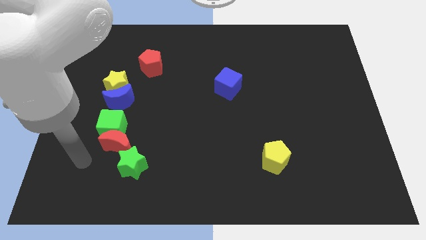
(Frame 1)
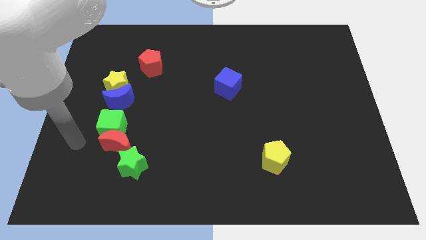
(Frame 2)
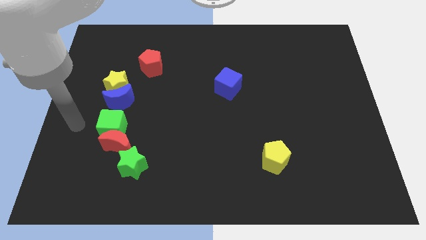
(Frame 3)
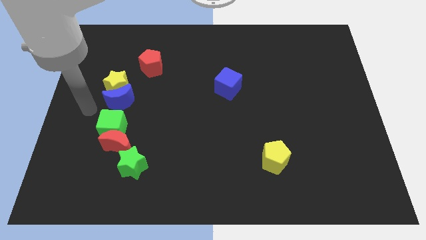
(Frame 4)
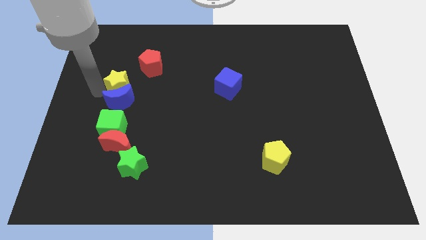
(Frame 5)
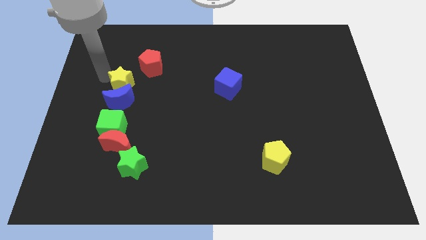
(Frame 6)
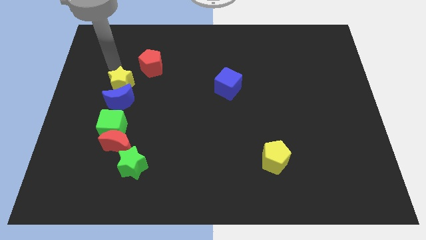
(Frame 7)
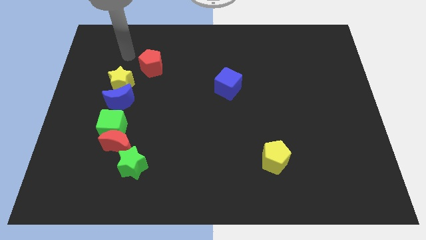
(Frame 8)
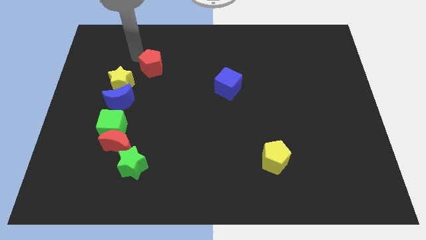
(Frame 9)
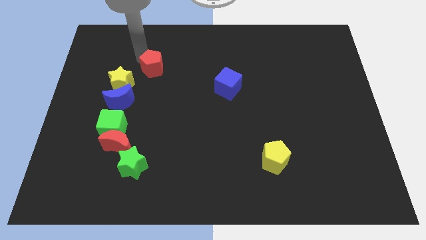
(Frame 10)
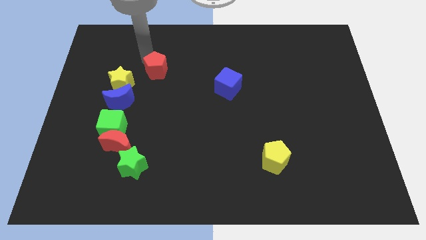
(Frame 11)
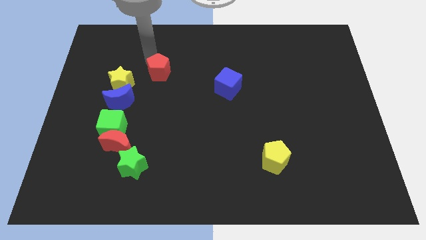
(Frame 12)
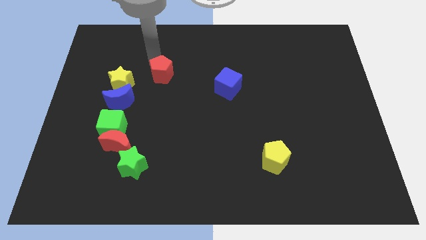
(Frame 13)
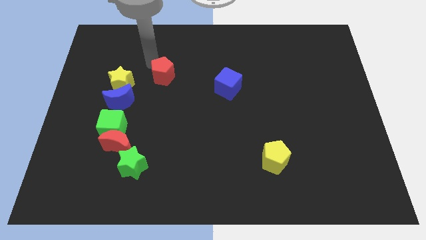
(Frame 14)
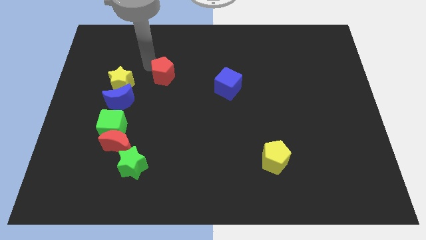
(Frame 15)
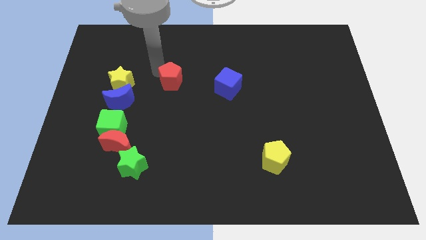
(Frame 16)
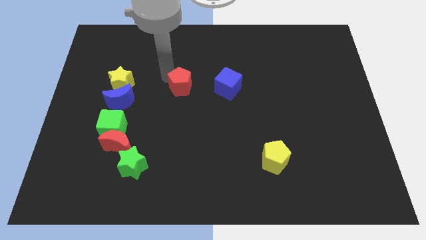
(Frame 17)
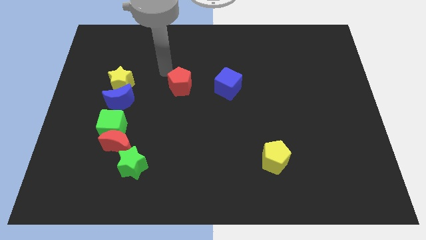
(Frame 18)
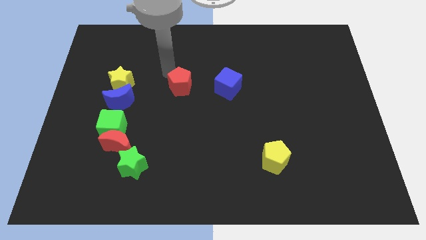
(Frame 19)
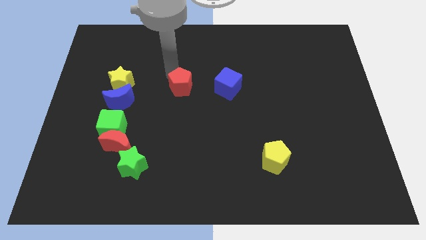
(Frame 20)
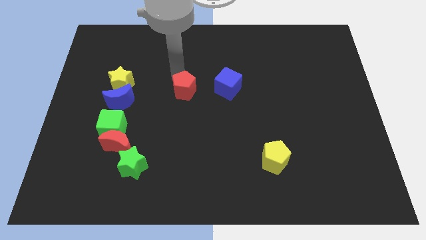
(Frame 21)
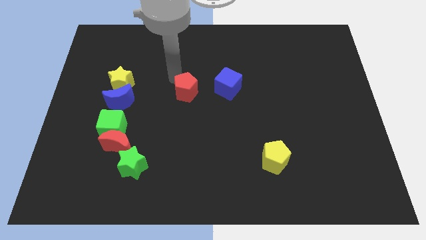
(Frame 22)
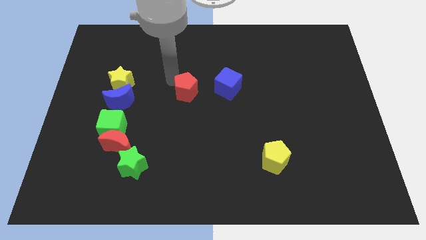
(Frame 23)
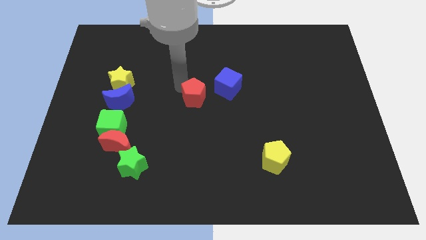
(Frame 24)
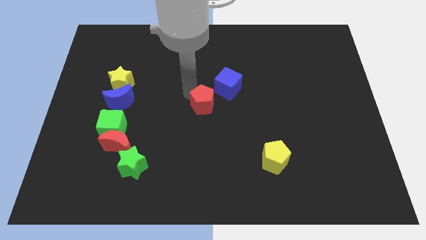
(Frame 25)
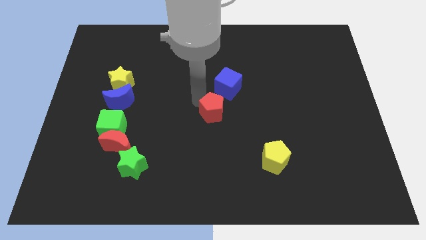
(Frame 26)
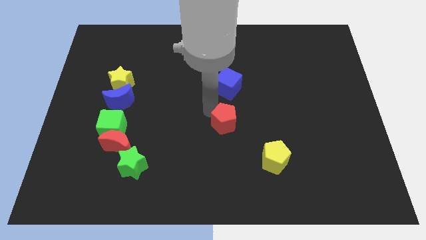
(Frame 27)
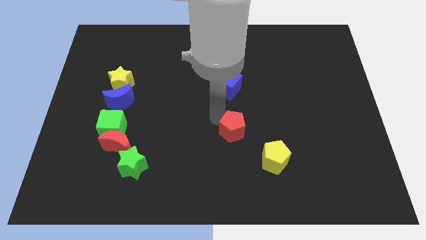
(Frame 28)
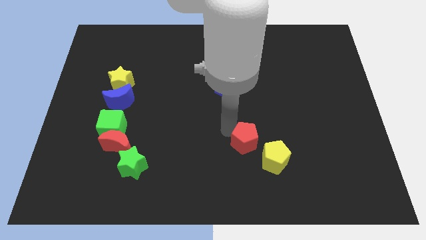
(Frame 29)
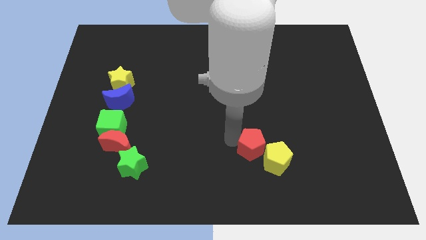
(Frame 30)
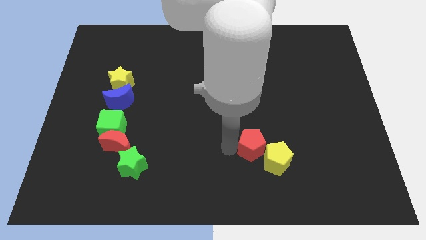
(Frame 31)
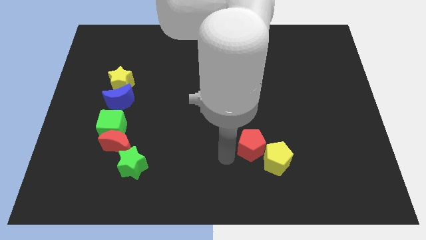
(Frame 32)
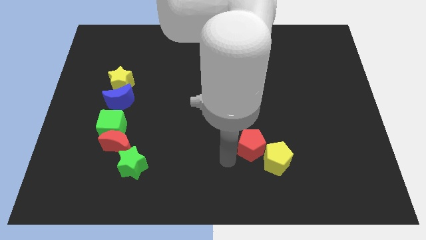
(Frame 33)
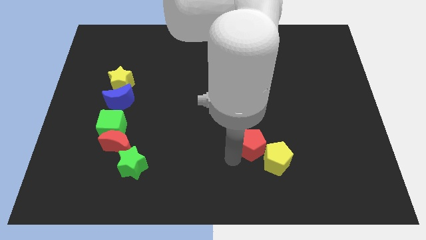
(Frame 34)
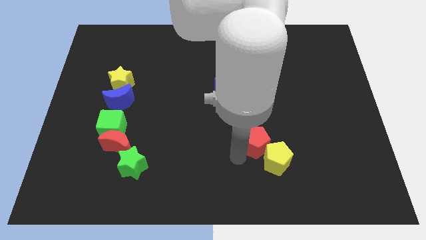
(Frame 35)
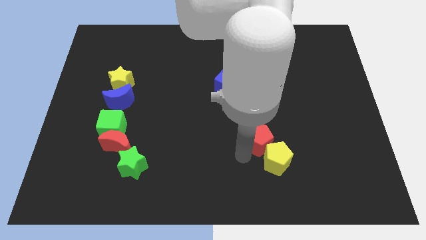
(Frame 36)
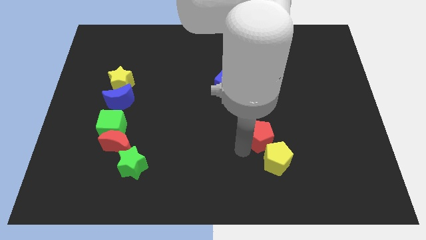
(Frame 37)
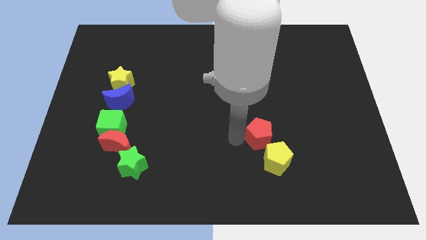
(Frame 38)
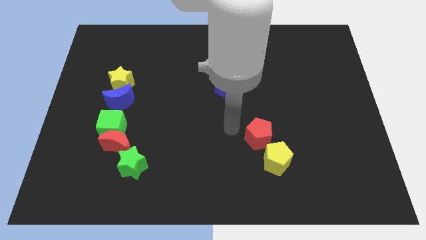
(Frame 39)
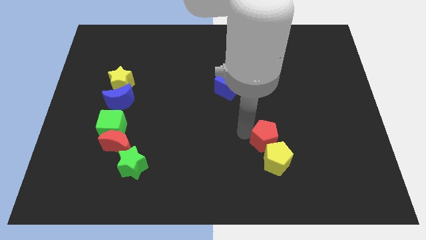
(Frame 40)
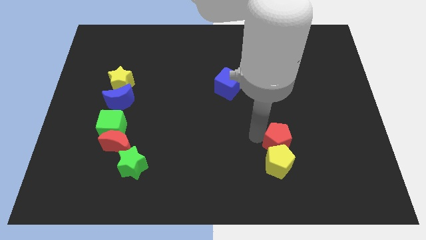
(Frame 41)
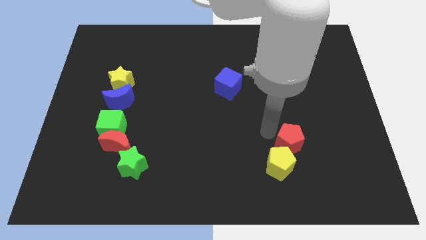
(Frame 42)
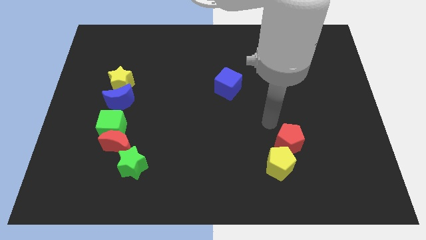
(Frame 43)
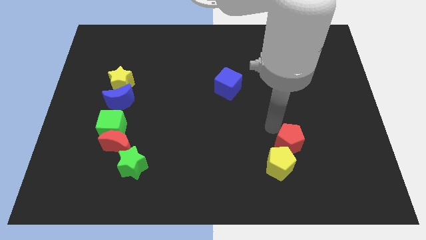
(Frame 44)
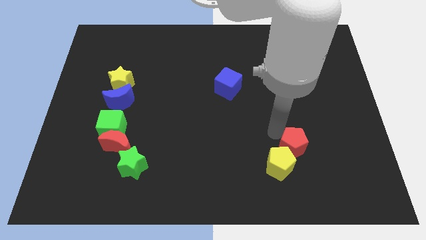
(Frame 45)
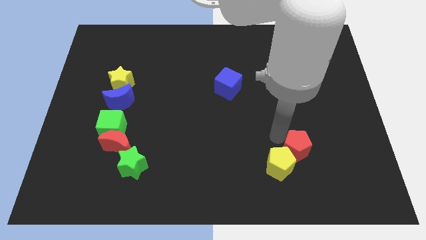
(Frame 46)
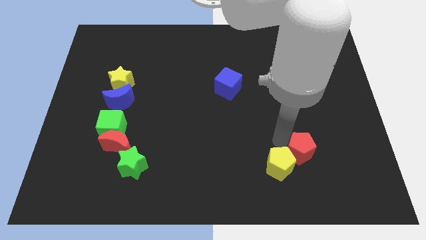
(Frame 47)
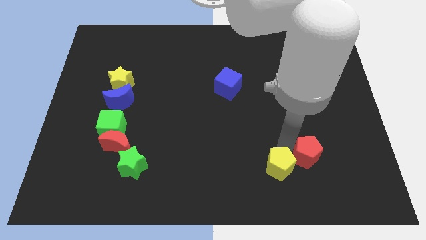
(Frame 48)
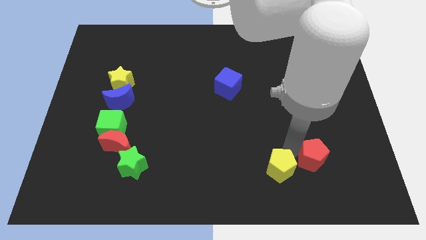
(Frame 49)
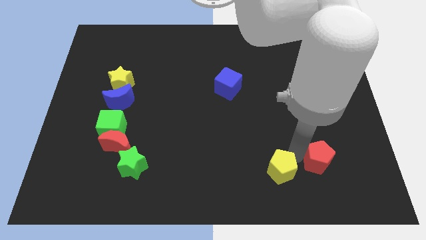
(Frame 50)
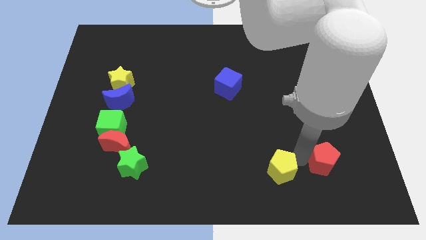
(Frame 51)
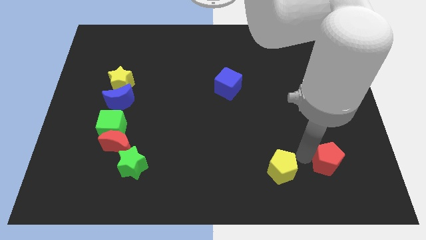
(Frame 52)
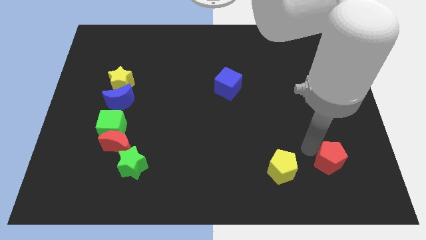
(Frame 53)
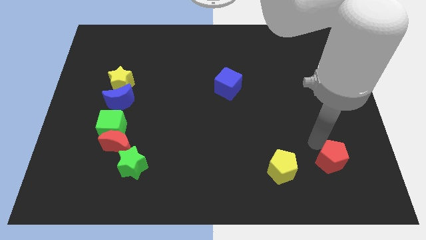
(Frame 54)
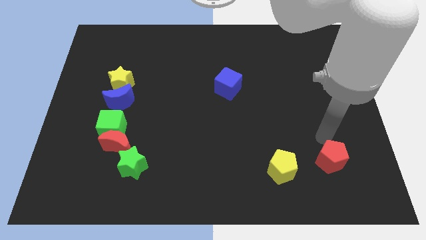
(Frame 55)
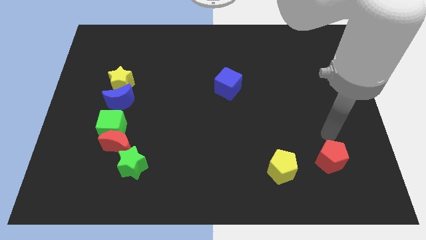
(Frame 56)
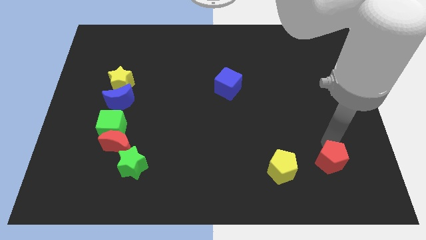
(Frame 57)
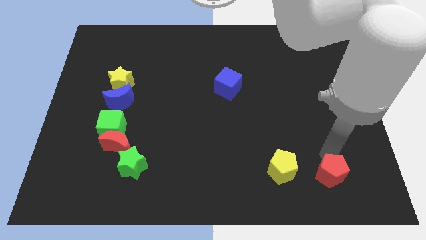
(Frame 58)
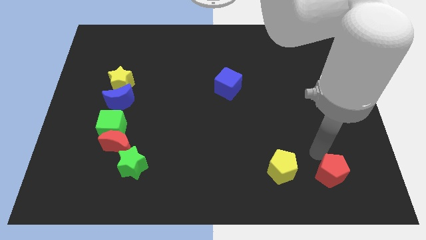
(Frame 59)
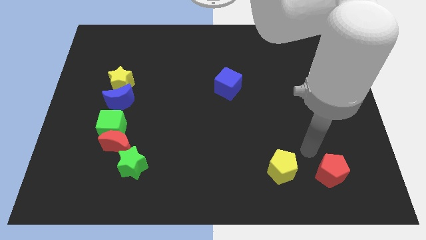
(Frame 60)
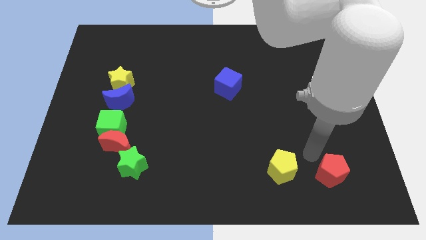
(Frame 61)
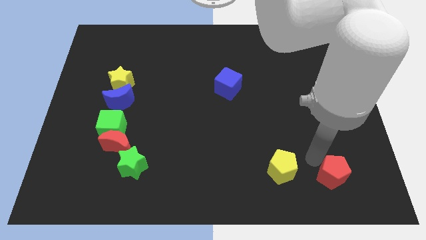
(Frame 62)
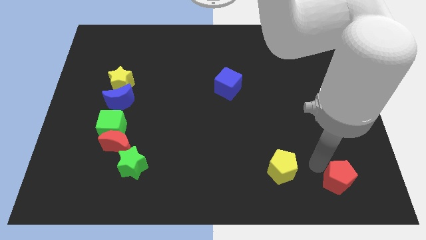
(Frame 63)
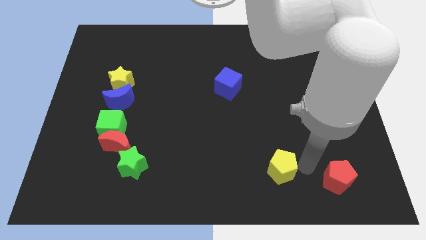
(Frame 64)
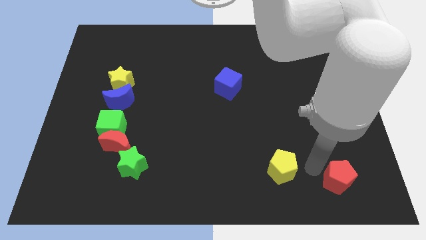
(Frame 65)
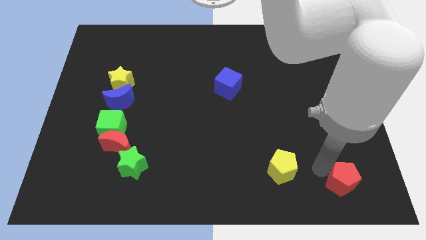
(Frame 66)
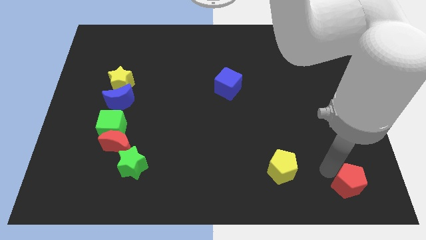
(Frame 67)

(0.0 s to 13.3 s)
put the red pentagon to the bottom right corner
